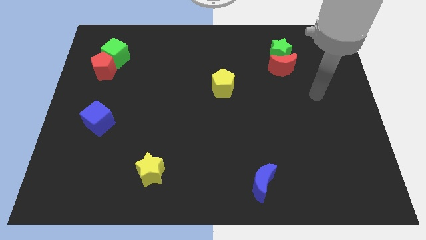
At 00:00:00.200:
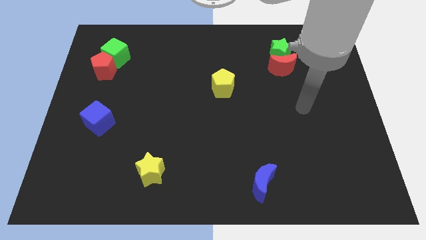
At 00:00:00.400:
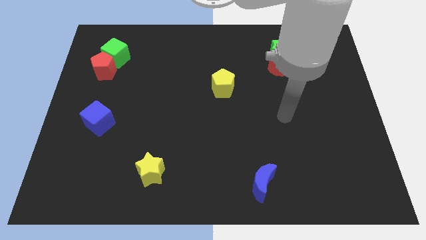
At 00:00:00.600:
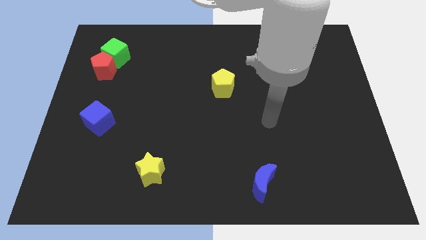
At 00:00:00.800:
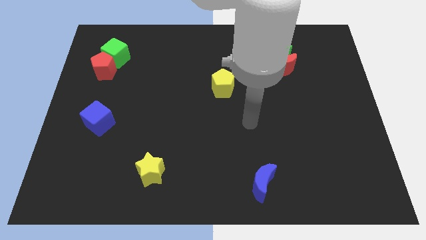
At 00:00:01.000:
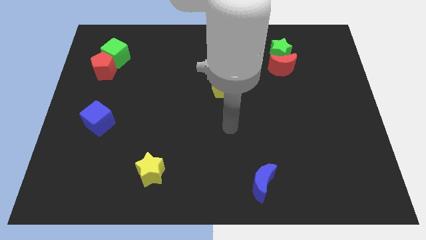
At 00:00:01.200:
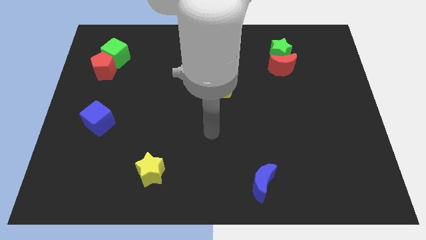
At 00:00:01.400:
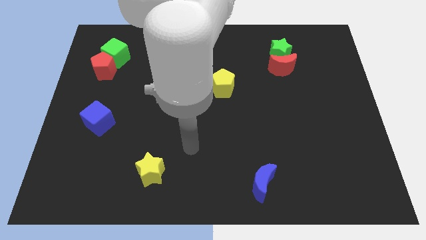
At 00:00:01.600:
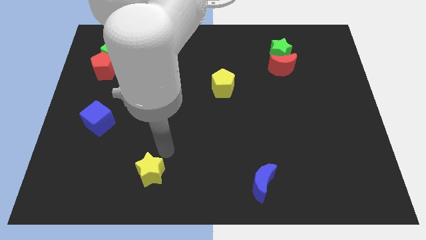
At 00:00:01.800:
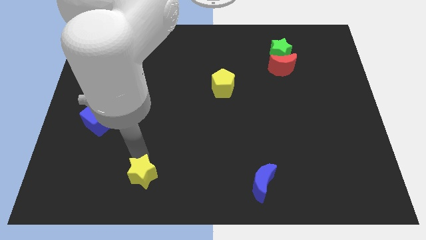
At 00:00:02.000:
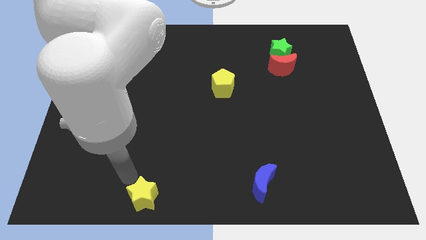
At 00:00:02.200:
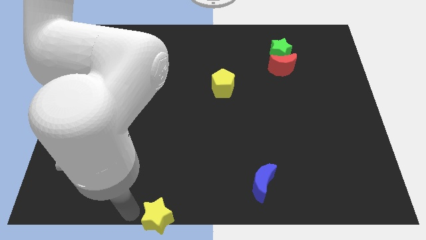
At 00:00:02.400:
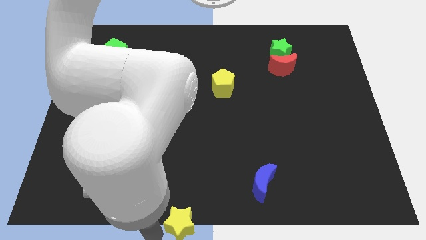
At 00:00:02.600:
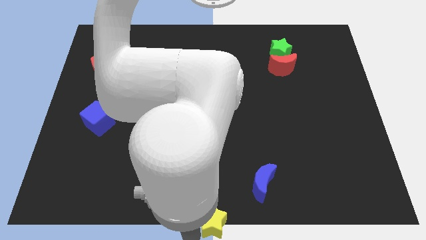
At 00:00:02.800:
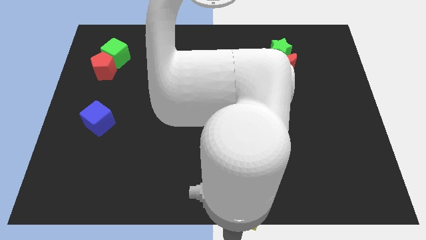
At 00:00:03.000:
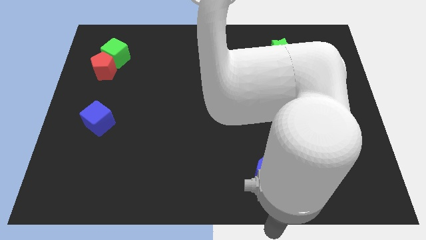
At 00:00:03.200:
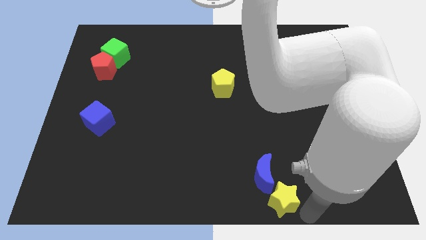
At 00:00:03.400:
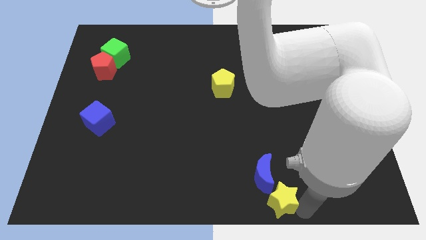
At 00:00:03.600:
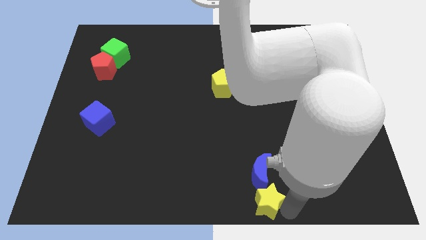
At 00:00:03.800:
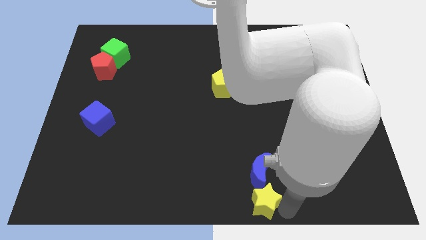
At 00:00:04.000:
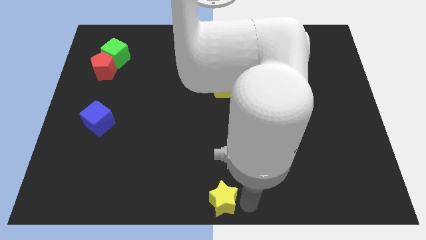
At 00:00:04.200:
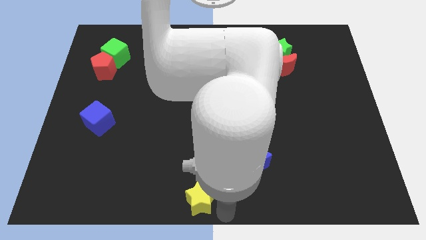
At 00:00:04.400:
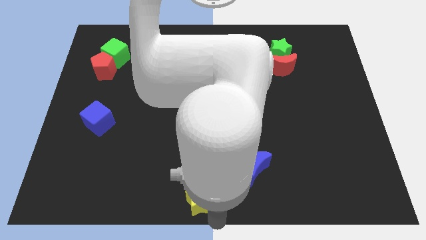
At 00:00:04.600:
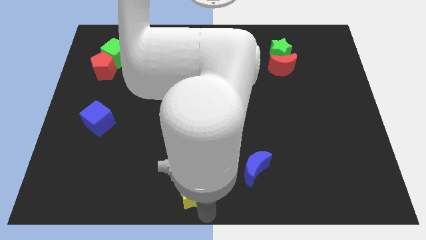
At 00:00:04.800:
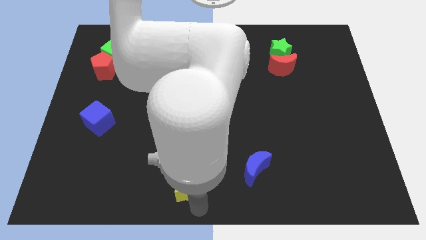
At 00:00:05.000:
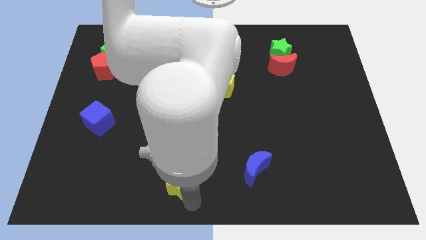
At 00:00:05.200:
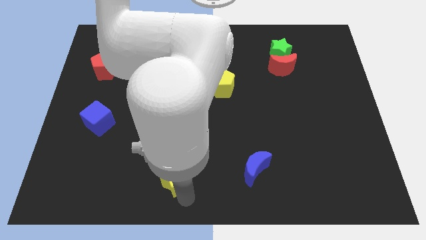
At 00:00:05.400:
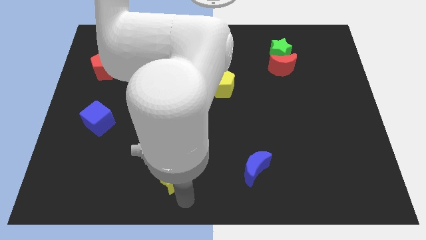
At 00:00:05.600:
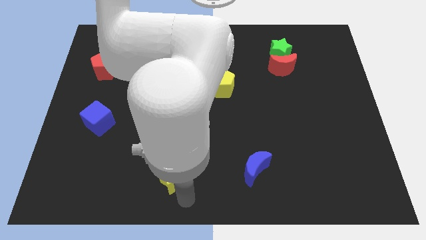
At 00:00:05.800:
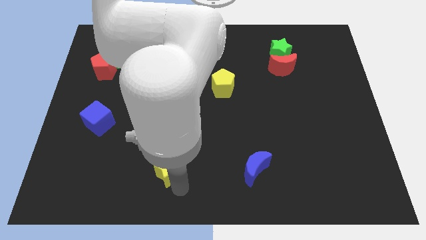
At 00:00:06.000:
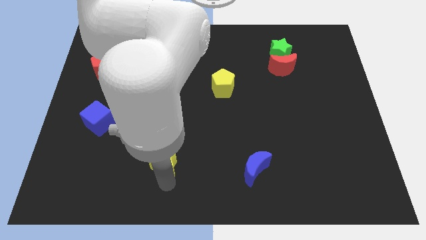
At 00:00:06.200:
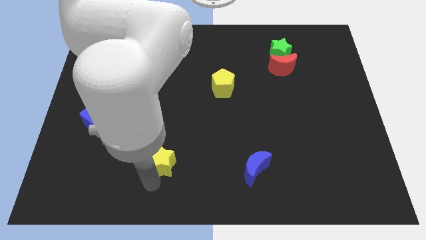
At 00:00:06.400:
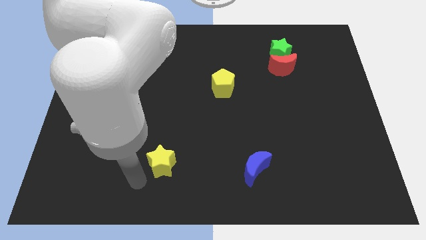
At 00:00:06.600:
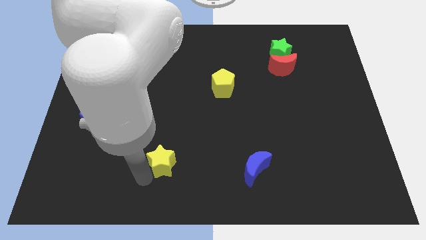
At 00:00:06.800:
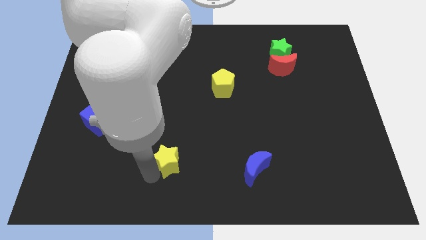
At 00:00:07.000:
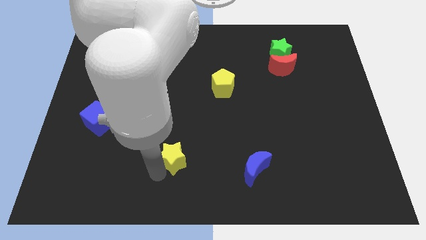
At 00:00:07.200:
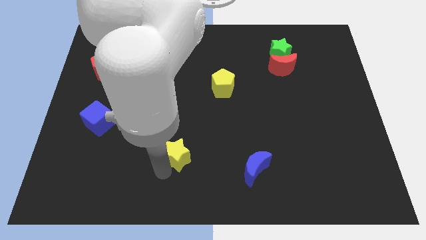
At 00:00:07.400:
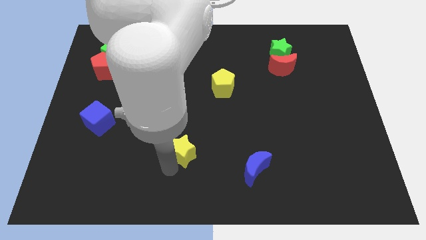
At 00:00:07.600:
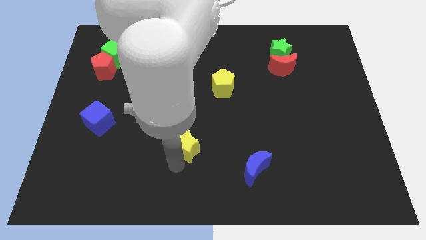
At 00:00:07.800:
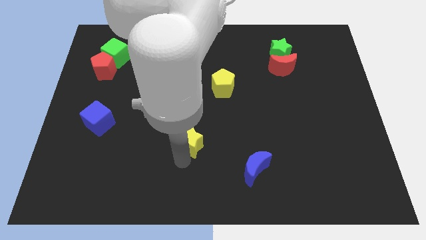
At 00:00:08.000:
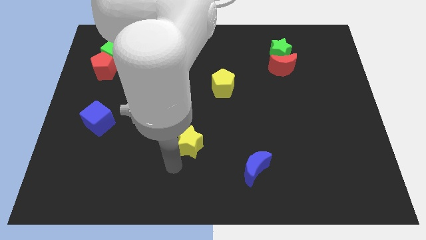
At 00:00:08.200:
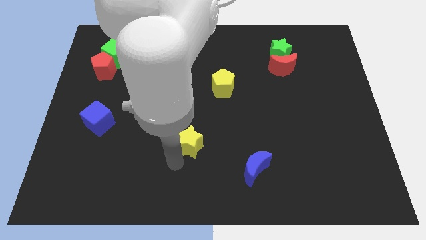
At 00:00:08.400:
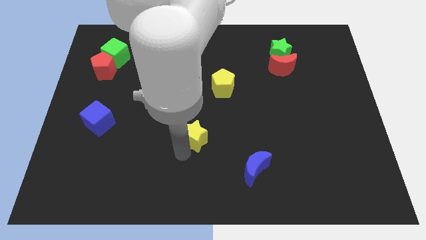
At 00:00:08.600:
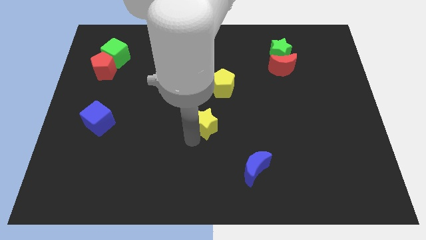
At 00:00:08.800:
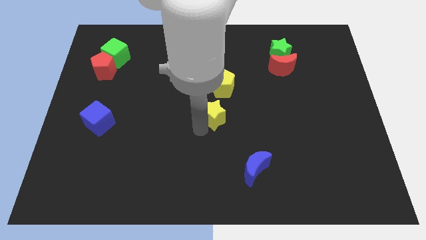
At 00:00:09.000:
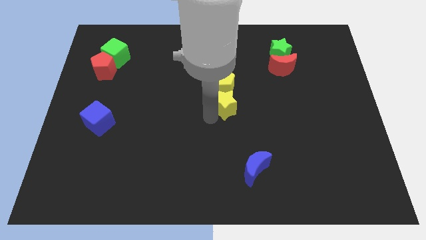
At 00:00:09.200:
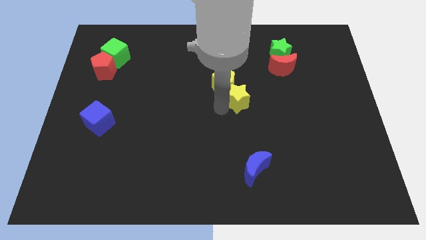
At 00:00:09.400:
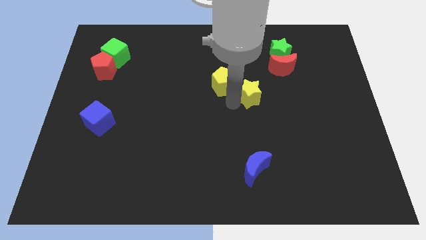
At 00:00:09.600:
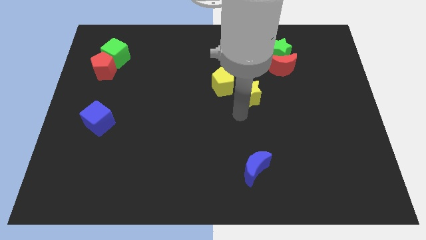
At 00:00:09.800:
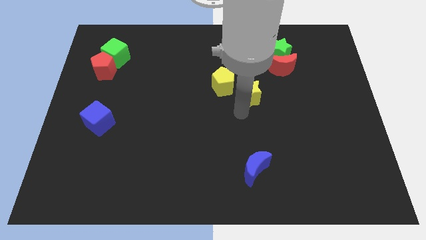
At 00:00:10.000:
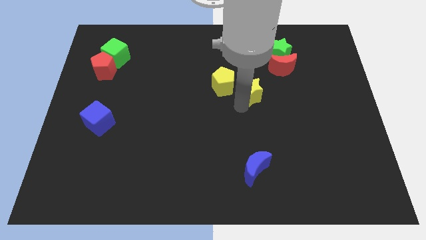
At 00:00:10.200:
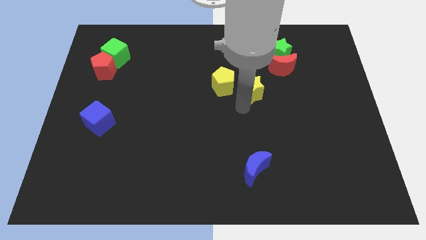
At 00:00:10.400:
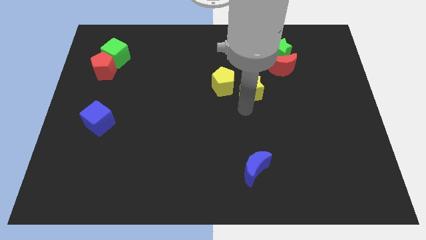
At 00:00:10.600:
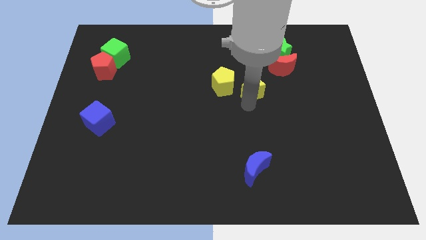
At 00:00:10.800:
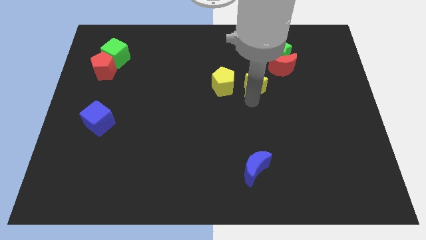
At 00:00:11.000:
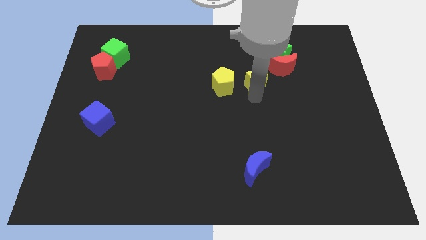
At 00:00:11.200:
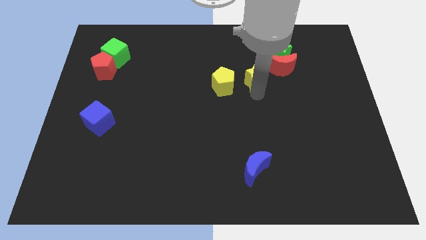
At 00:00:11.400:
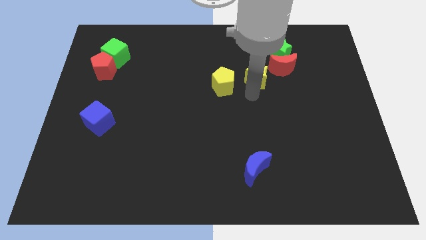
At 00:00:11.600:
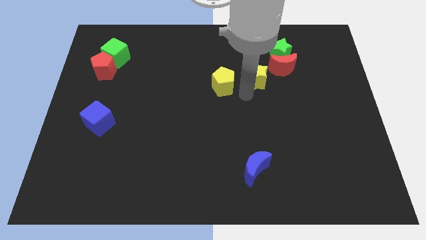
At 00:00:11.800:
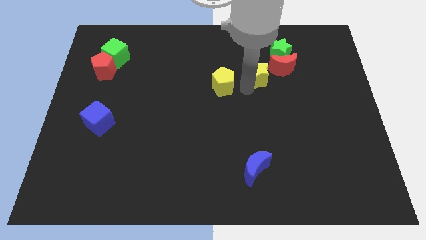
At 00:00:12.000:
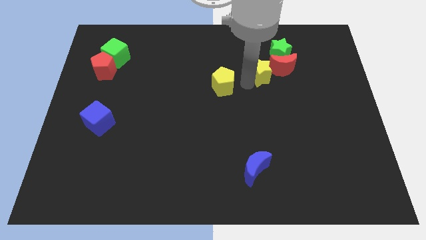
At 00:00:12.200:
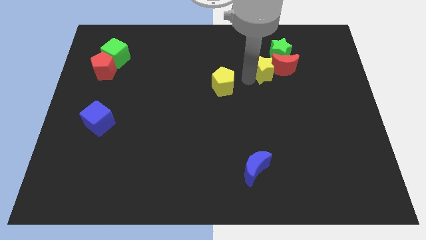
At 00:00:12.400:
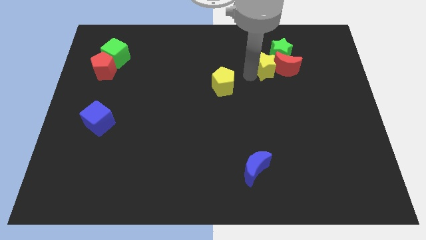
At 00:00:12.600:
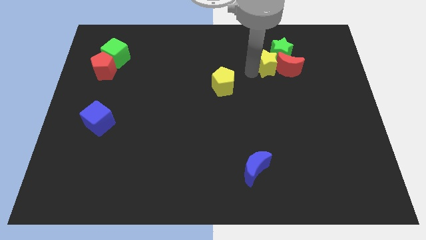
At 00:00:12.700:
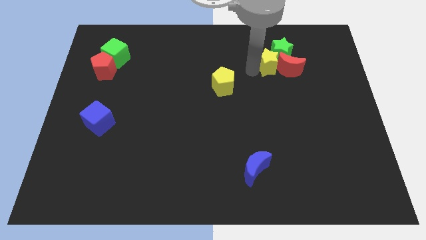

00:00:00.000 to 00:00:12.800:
put the yellow star close to the green star

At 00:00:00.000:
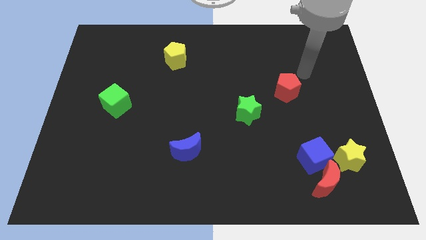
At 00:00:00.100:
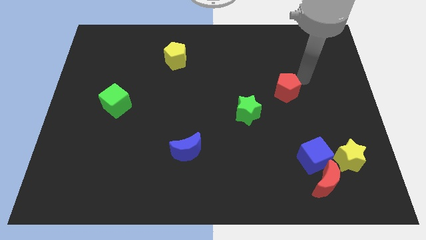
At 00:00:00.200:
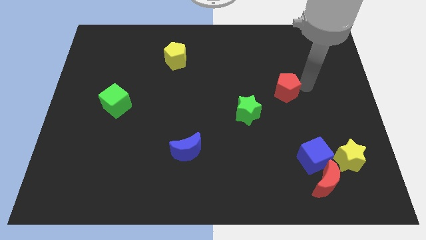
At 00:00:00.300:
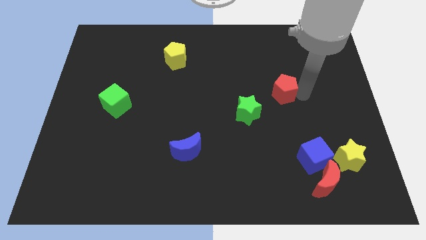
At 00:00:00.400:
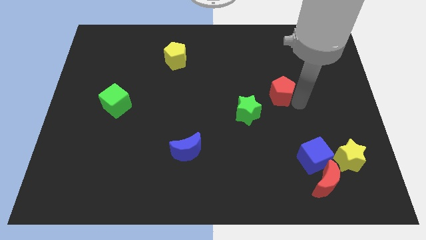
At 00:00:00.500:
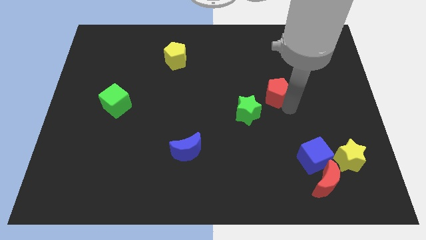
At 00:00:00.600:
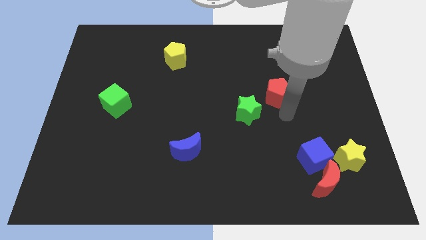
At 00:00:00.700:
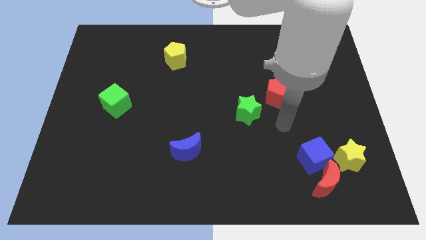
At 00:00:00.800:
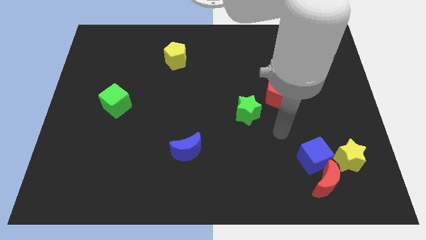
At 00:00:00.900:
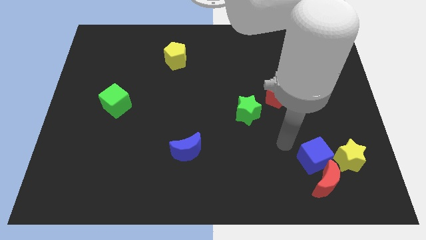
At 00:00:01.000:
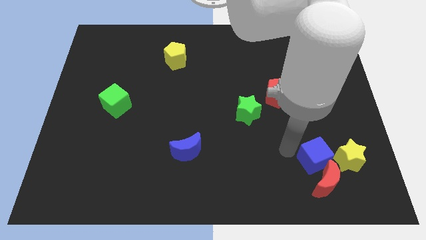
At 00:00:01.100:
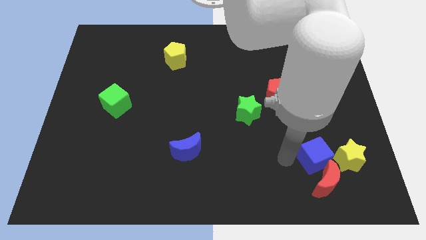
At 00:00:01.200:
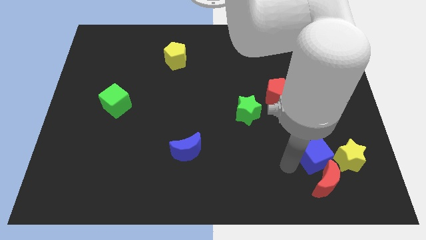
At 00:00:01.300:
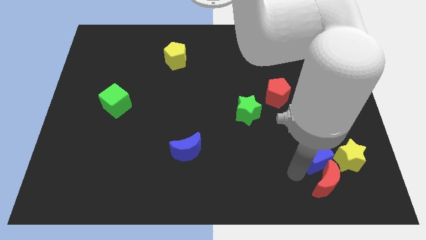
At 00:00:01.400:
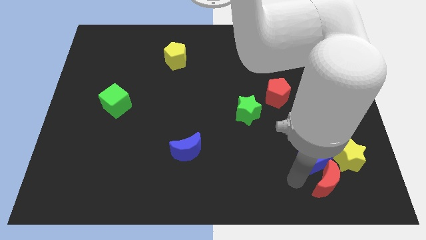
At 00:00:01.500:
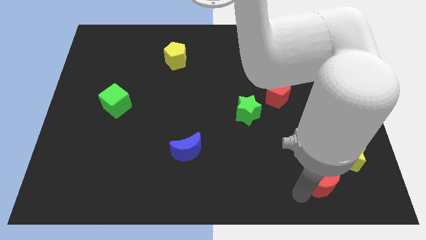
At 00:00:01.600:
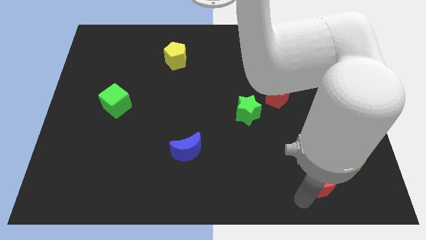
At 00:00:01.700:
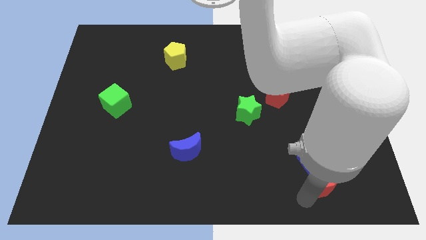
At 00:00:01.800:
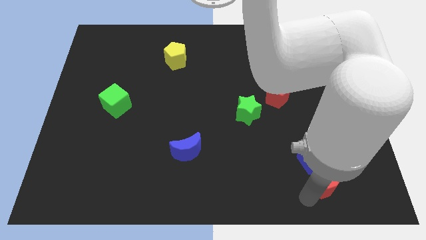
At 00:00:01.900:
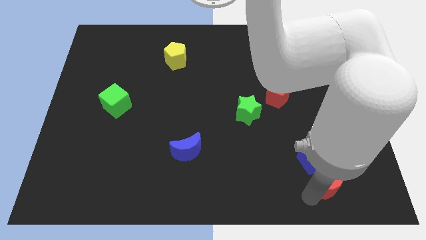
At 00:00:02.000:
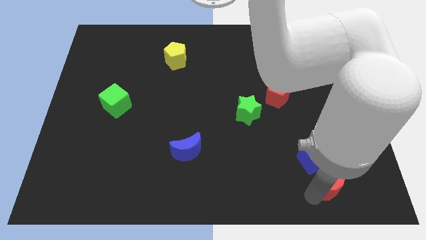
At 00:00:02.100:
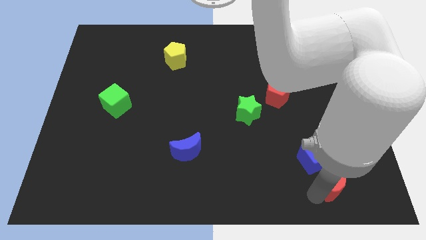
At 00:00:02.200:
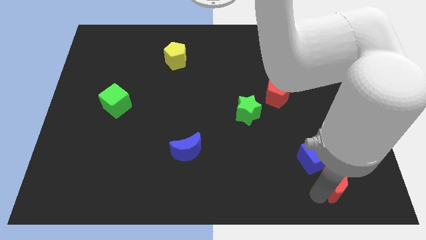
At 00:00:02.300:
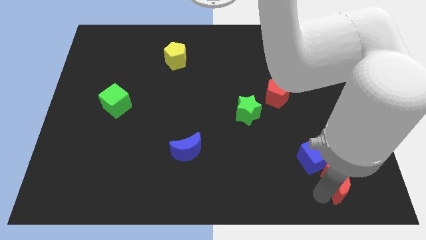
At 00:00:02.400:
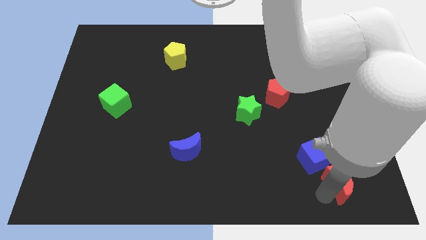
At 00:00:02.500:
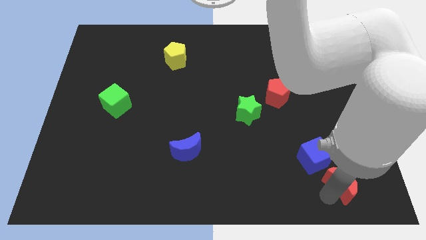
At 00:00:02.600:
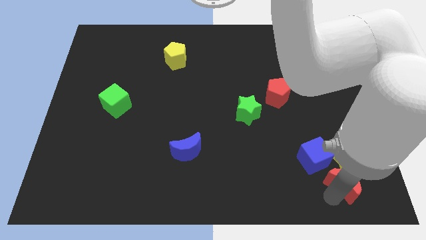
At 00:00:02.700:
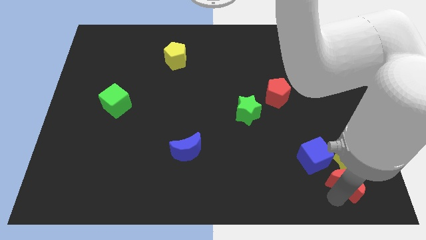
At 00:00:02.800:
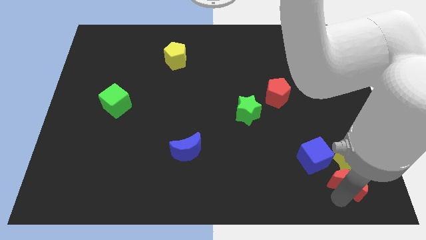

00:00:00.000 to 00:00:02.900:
move the red moon to the yellow star
